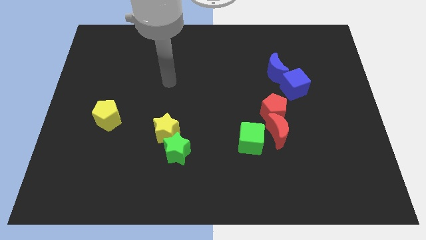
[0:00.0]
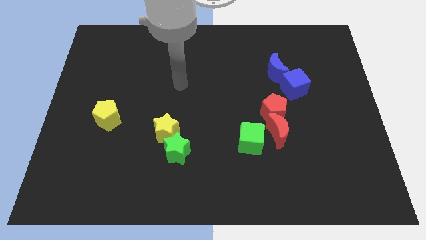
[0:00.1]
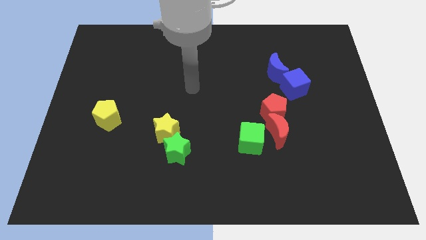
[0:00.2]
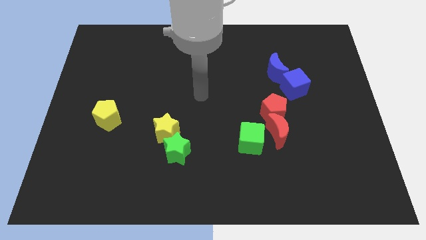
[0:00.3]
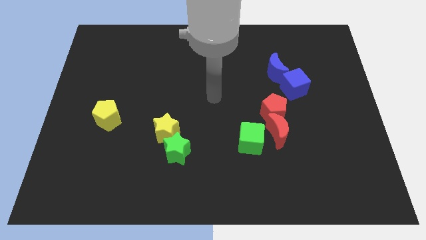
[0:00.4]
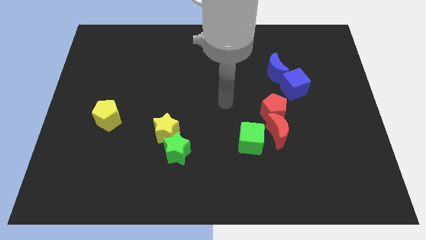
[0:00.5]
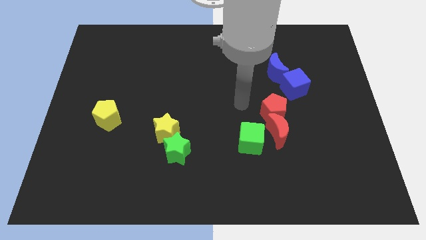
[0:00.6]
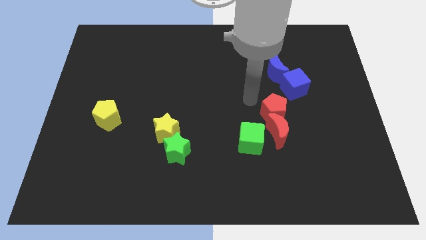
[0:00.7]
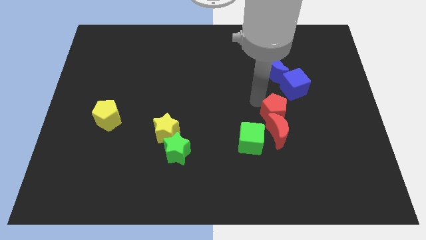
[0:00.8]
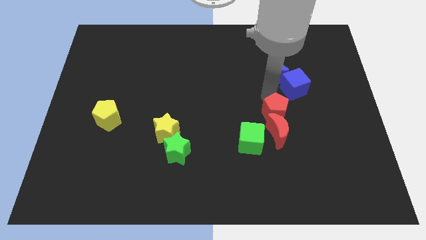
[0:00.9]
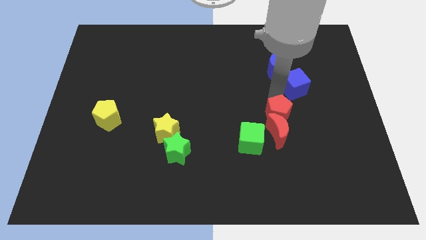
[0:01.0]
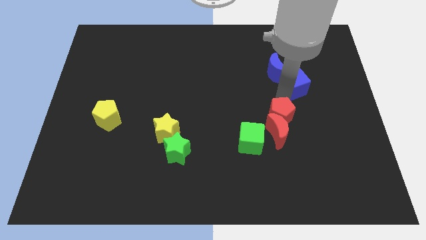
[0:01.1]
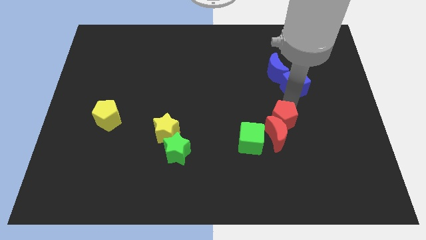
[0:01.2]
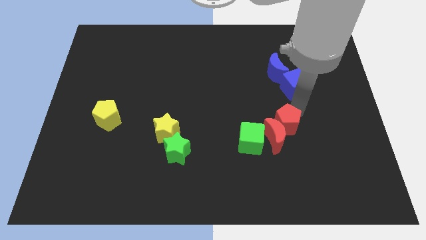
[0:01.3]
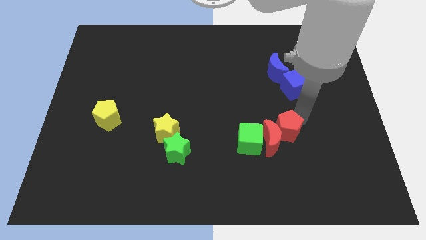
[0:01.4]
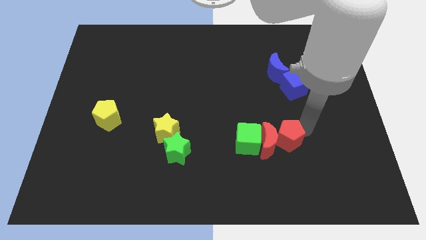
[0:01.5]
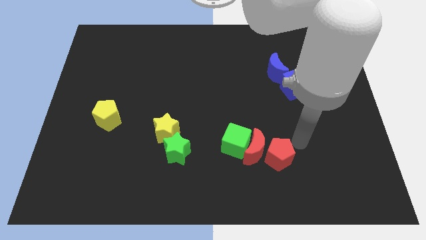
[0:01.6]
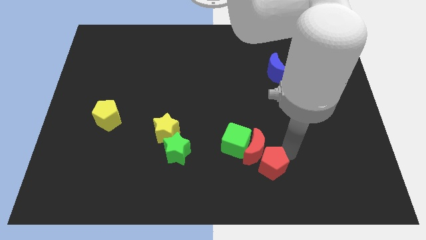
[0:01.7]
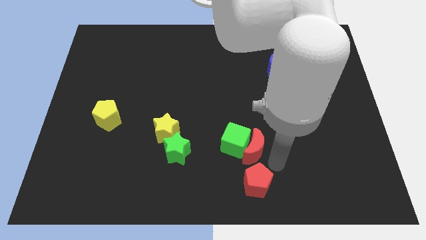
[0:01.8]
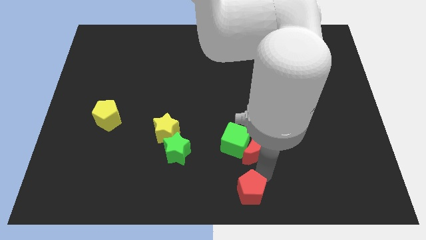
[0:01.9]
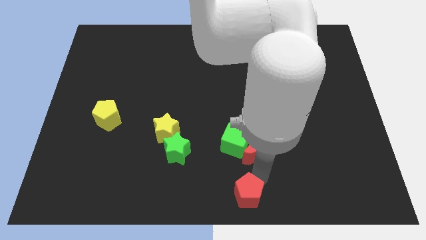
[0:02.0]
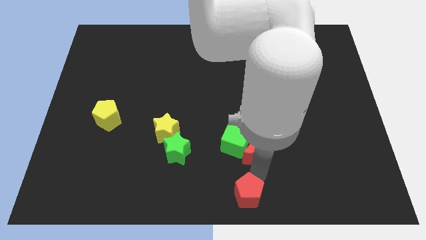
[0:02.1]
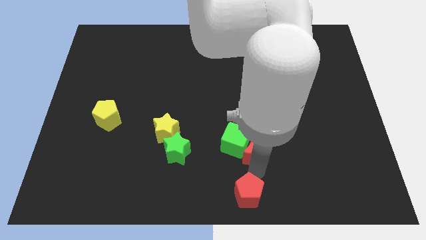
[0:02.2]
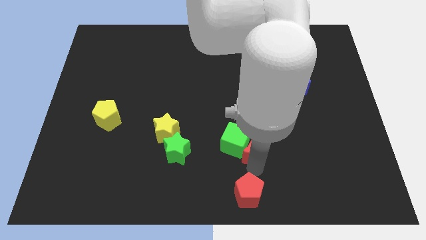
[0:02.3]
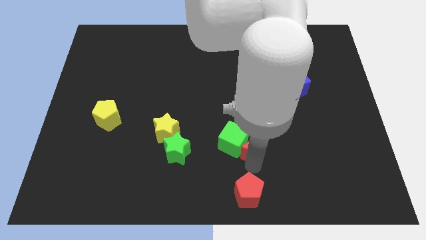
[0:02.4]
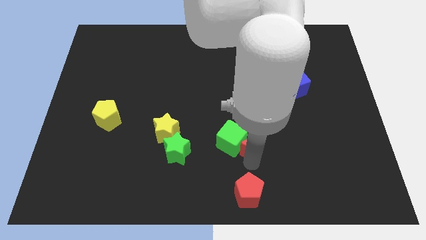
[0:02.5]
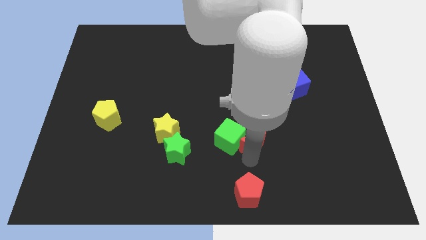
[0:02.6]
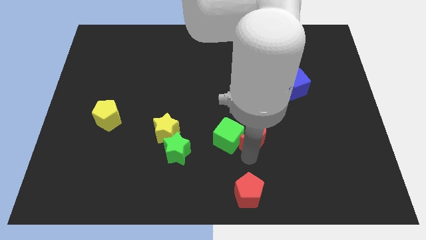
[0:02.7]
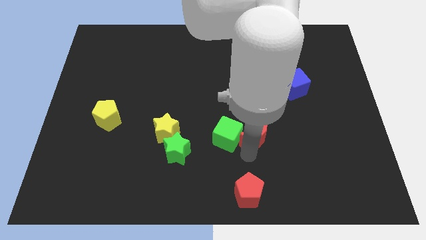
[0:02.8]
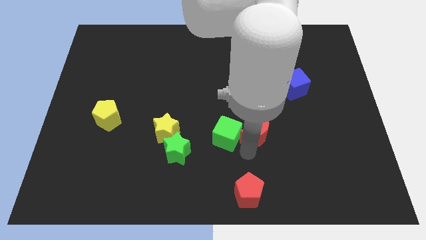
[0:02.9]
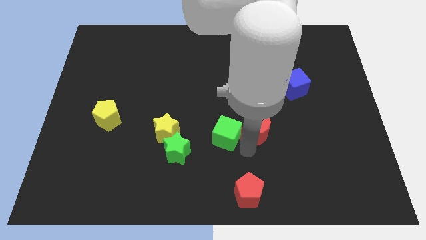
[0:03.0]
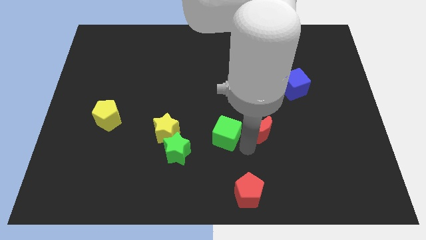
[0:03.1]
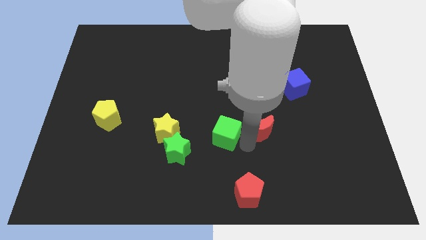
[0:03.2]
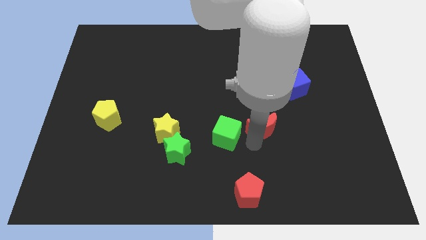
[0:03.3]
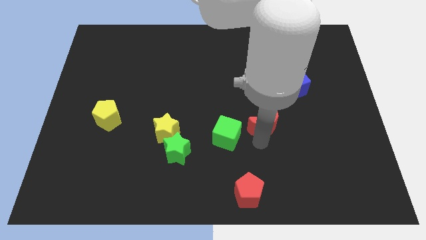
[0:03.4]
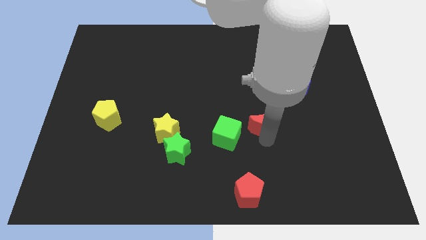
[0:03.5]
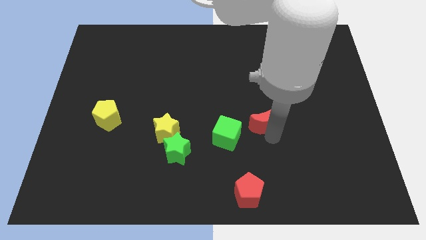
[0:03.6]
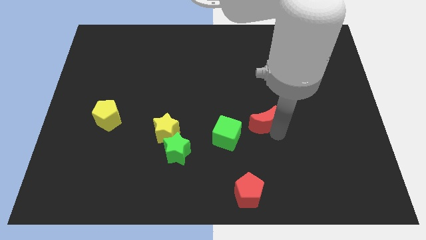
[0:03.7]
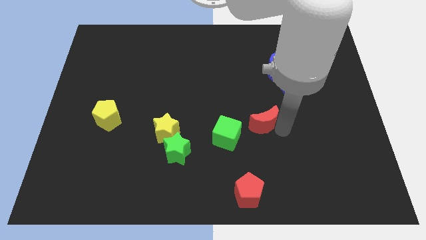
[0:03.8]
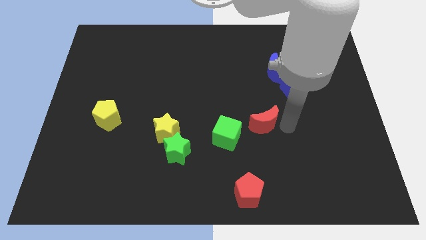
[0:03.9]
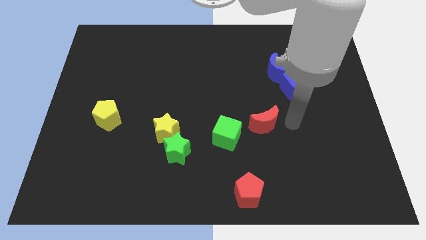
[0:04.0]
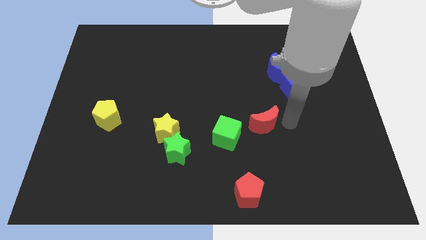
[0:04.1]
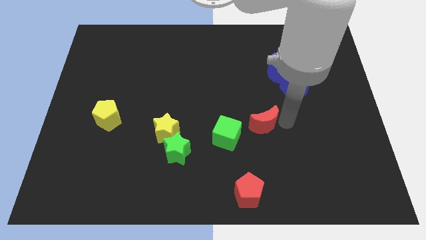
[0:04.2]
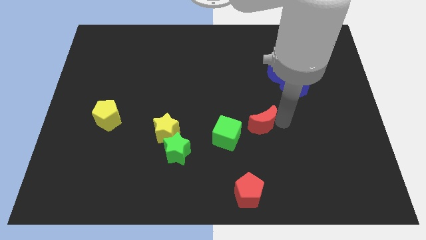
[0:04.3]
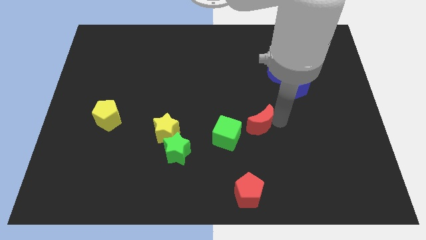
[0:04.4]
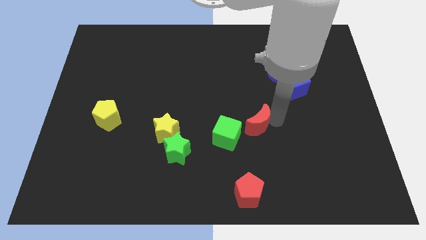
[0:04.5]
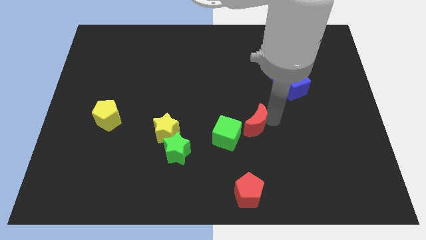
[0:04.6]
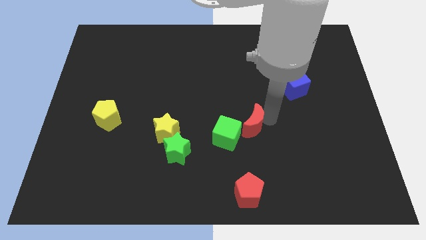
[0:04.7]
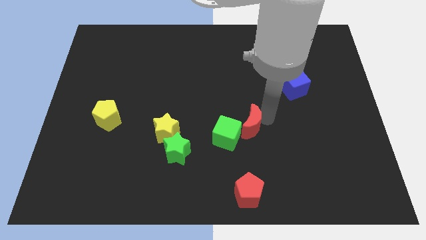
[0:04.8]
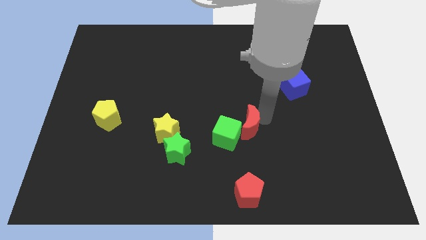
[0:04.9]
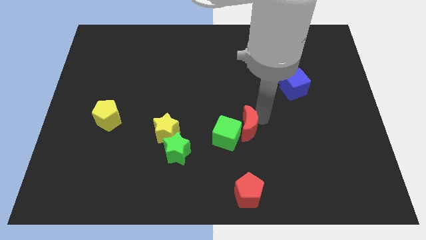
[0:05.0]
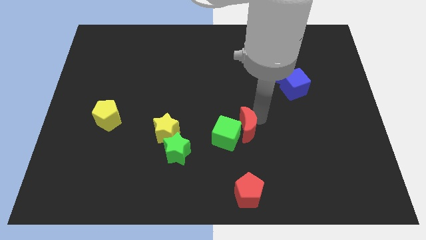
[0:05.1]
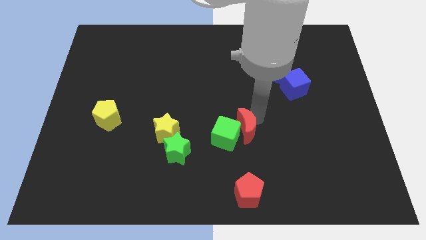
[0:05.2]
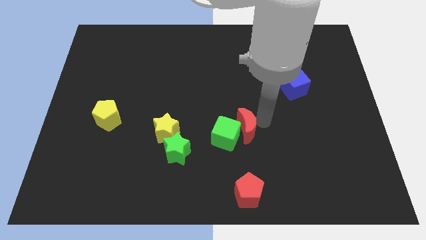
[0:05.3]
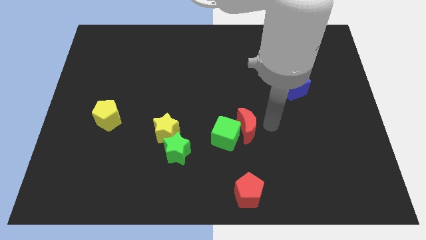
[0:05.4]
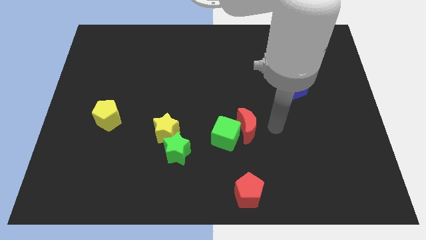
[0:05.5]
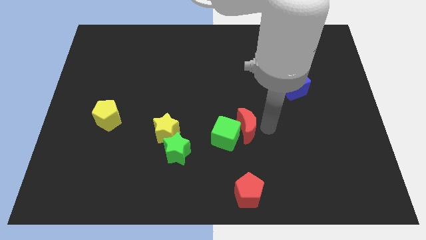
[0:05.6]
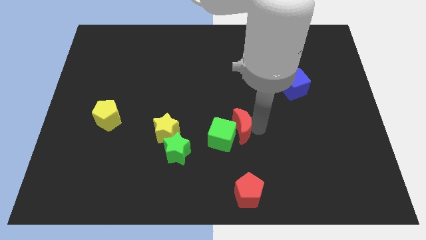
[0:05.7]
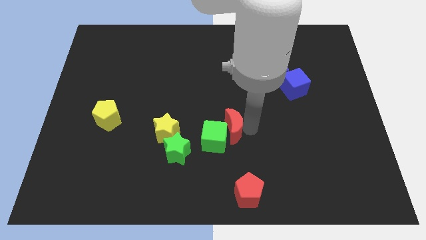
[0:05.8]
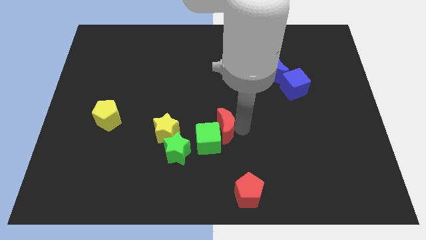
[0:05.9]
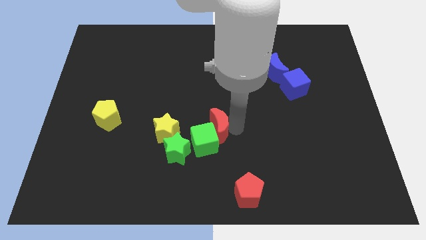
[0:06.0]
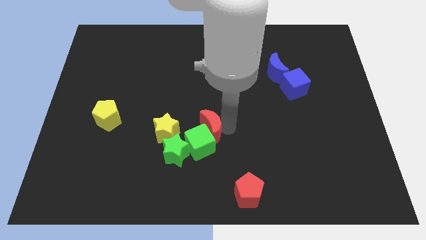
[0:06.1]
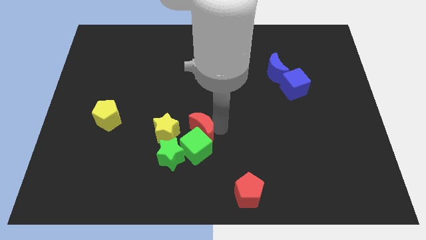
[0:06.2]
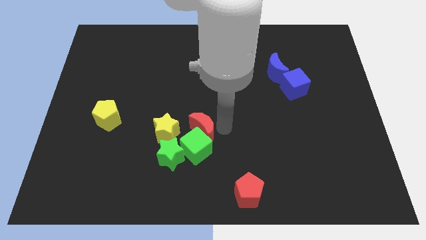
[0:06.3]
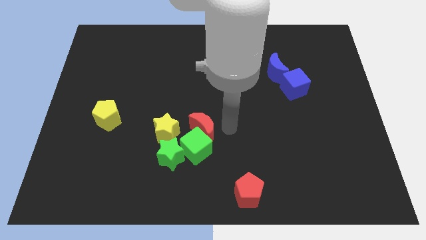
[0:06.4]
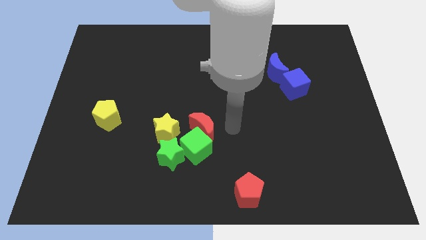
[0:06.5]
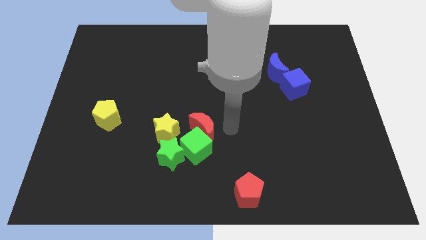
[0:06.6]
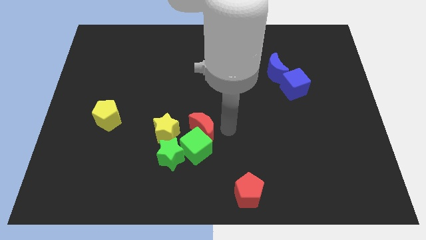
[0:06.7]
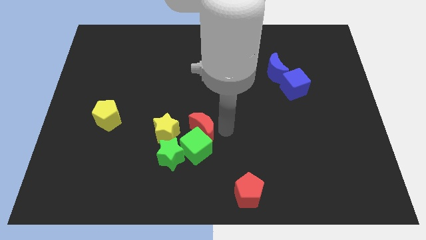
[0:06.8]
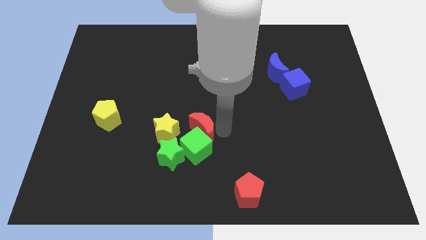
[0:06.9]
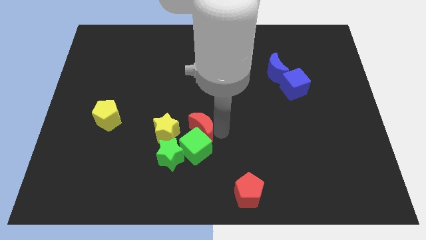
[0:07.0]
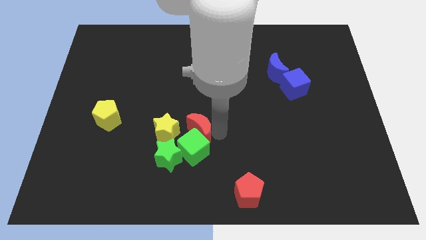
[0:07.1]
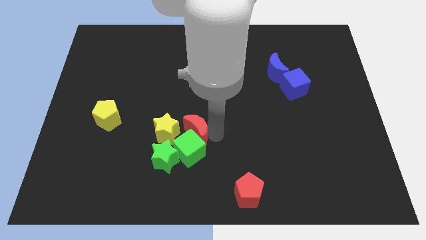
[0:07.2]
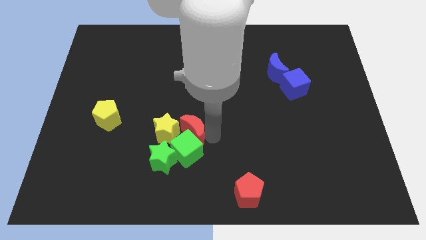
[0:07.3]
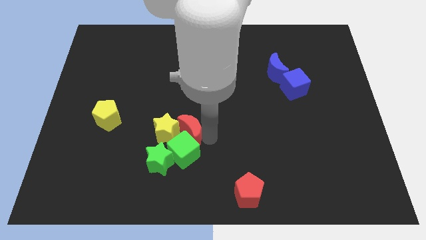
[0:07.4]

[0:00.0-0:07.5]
slide the red moon next to the yellow star
